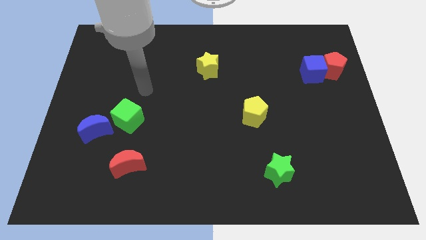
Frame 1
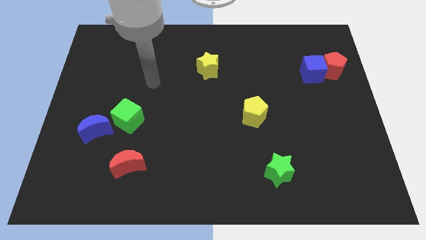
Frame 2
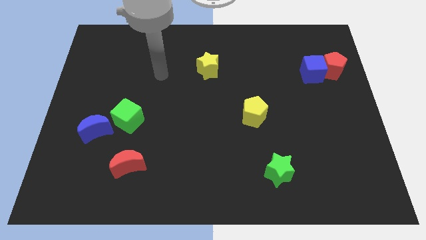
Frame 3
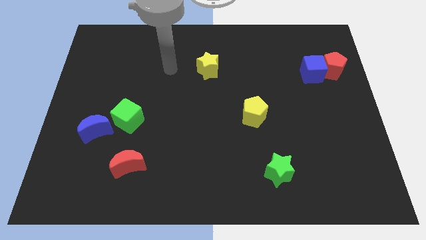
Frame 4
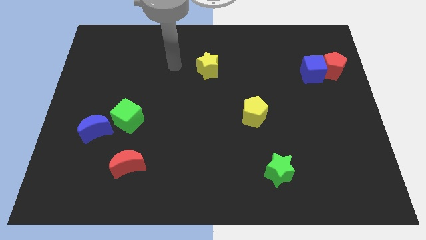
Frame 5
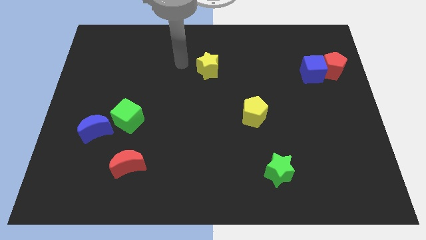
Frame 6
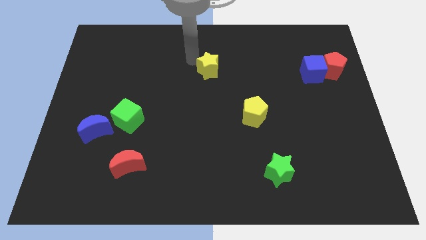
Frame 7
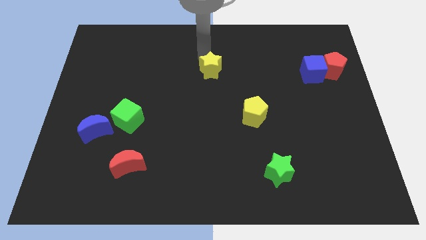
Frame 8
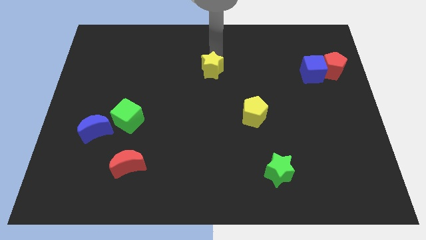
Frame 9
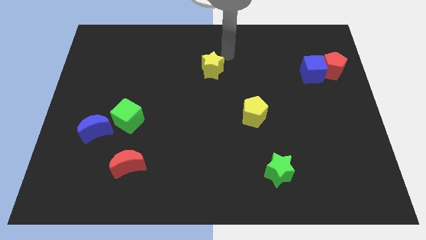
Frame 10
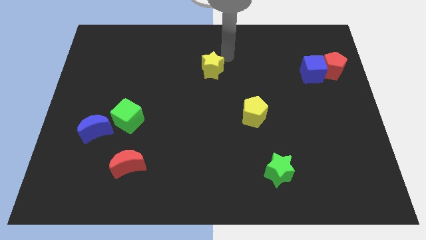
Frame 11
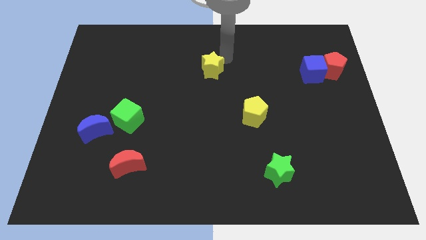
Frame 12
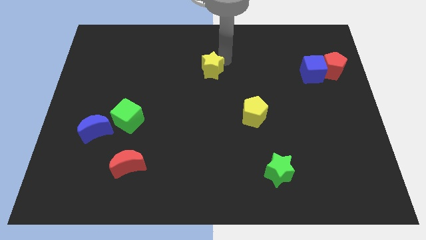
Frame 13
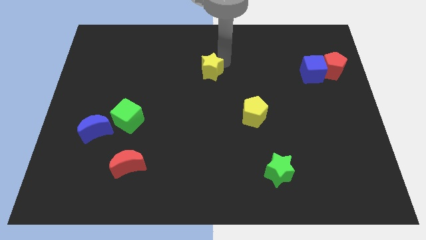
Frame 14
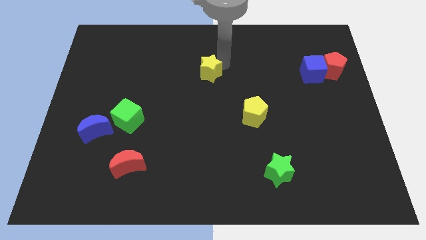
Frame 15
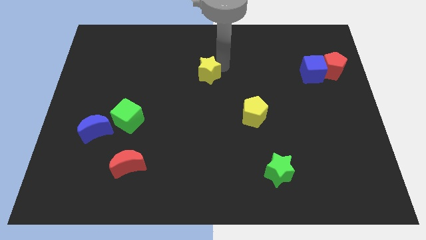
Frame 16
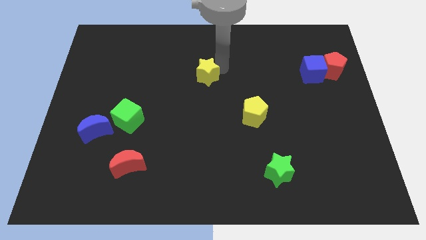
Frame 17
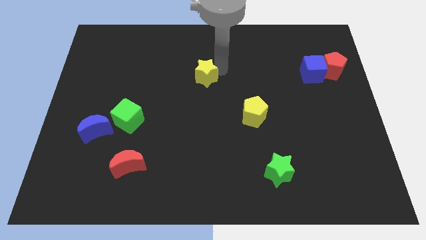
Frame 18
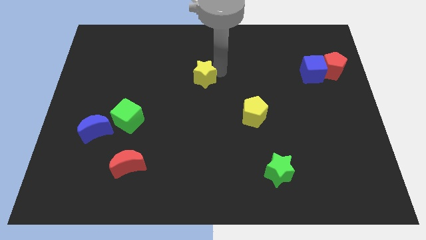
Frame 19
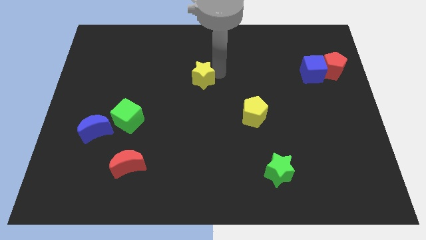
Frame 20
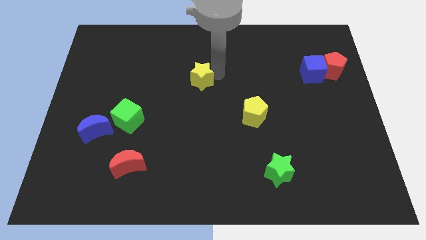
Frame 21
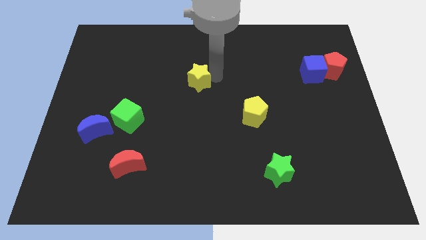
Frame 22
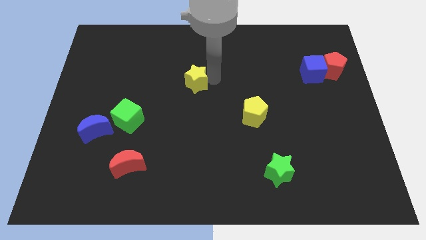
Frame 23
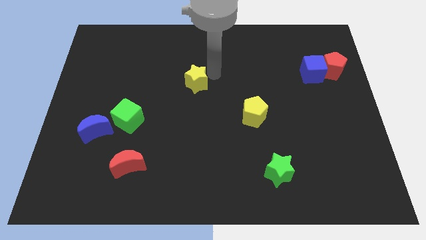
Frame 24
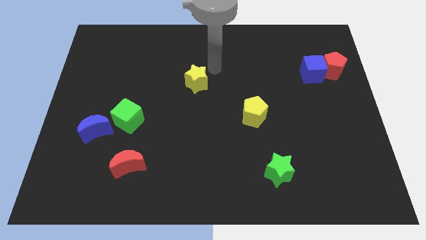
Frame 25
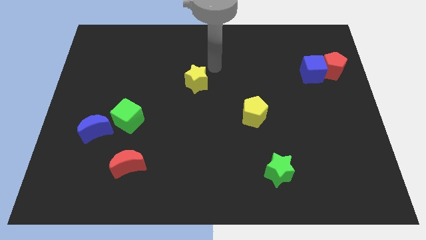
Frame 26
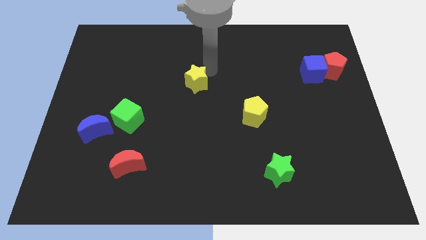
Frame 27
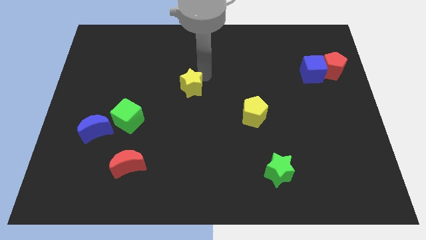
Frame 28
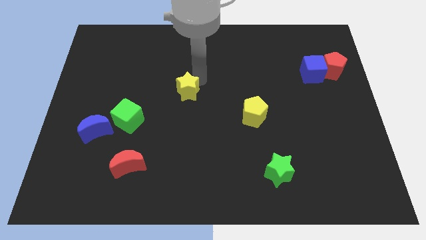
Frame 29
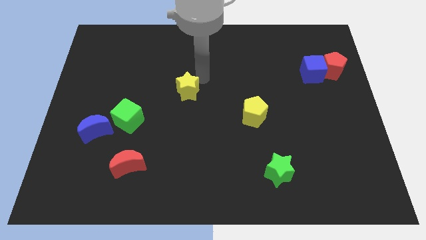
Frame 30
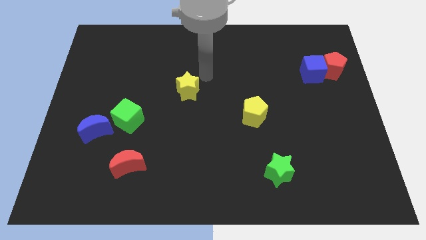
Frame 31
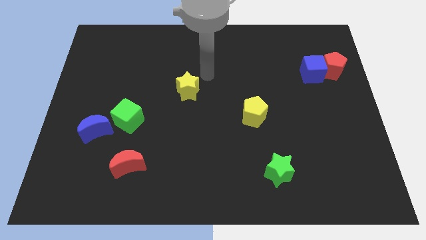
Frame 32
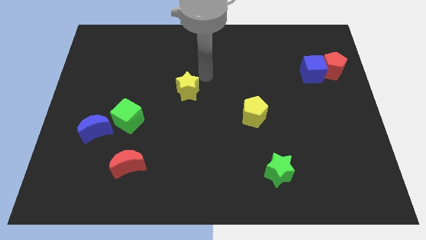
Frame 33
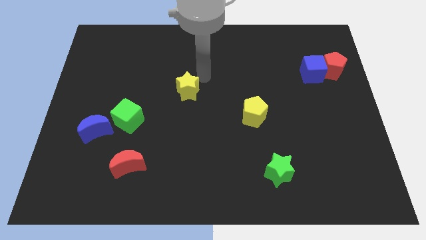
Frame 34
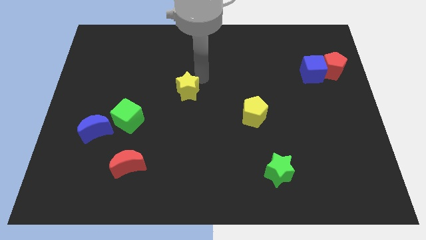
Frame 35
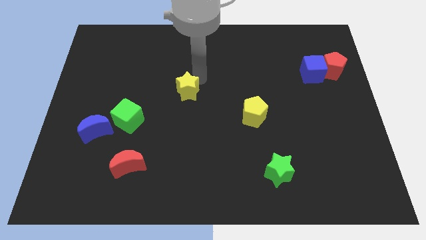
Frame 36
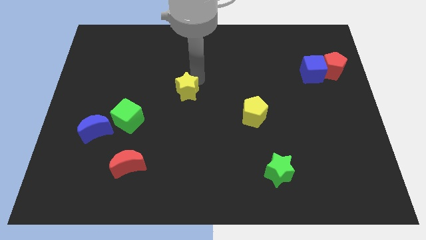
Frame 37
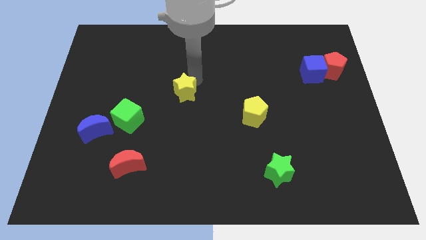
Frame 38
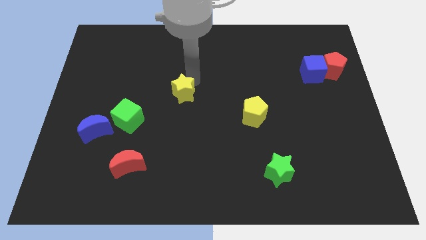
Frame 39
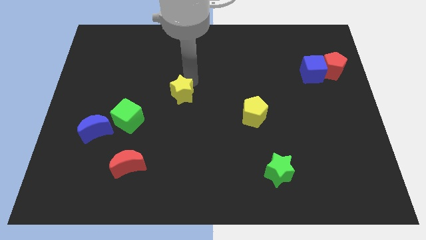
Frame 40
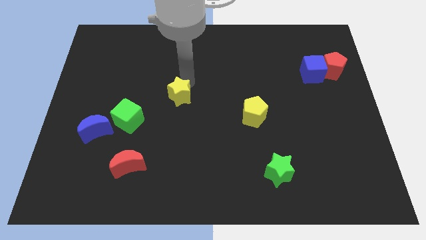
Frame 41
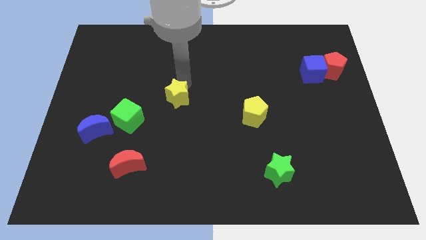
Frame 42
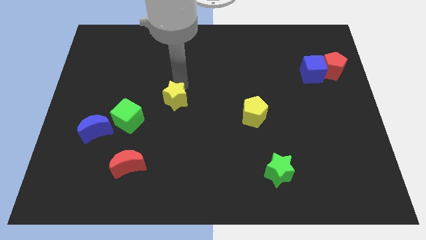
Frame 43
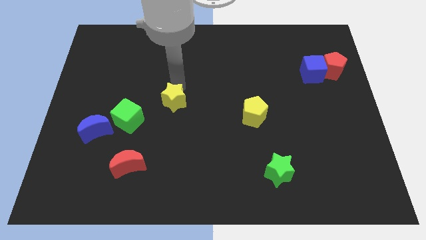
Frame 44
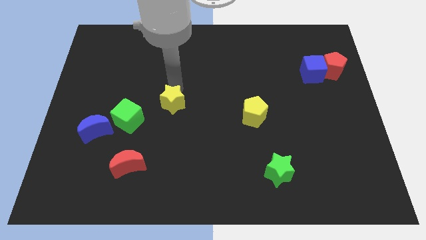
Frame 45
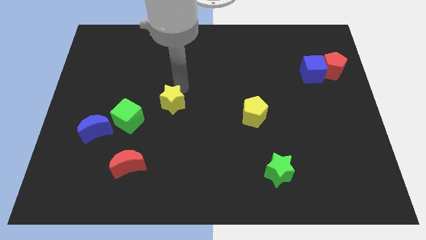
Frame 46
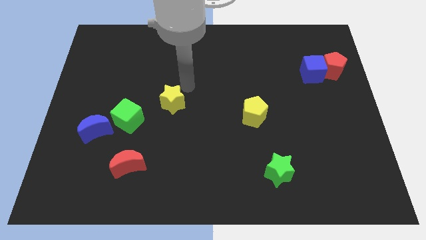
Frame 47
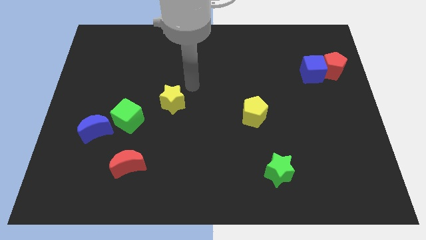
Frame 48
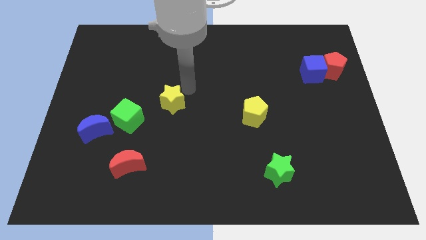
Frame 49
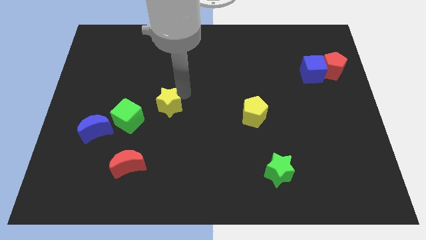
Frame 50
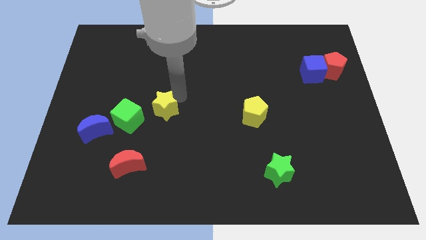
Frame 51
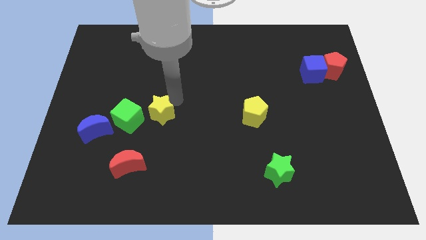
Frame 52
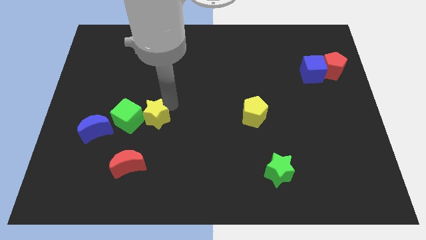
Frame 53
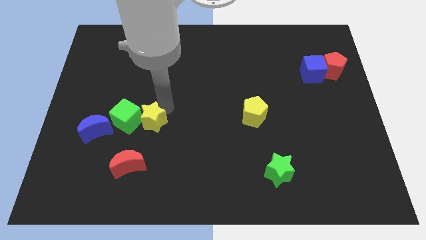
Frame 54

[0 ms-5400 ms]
slide the yellow star downwards and then left

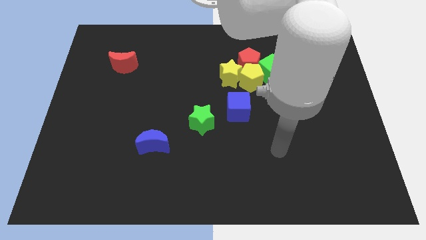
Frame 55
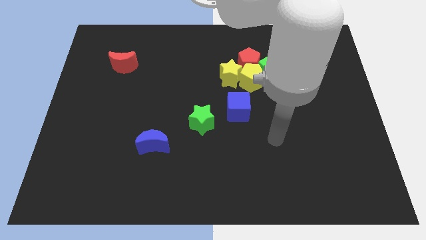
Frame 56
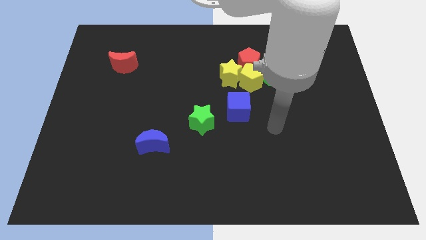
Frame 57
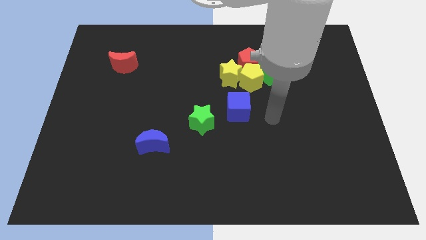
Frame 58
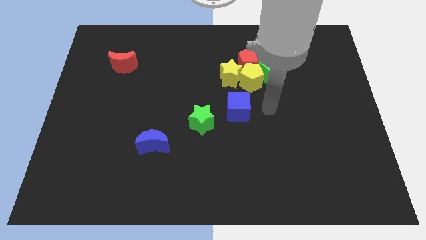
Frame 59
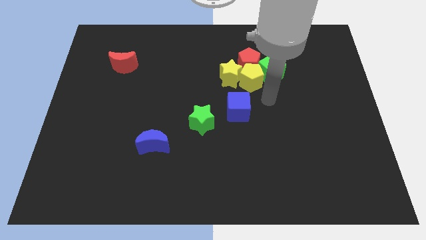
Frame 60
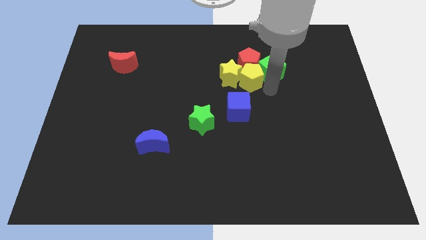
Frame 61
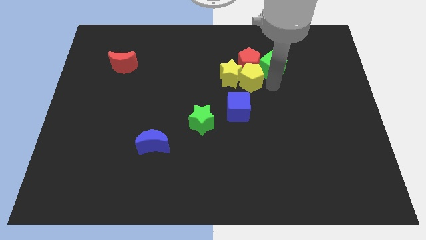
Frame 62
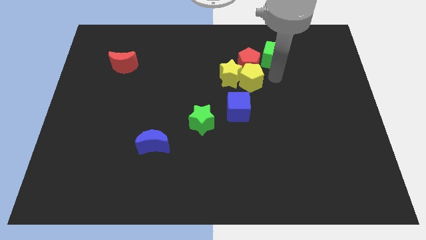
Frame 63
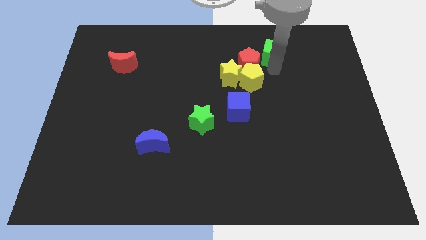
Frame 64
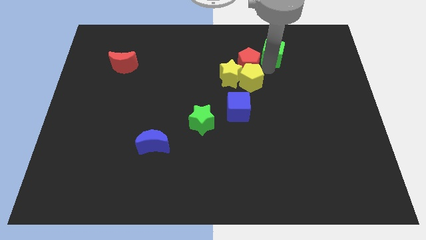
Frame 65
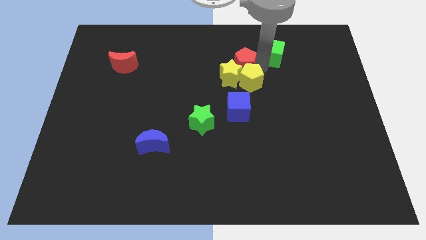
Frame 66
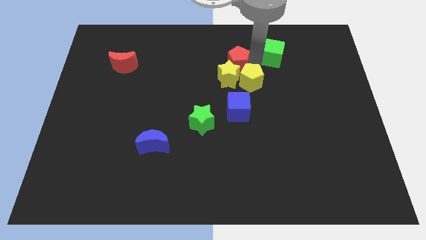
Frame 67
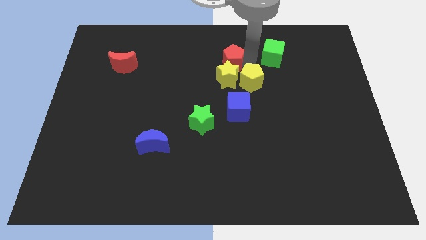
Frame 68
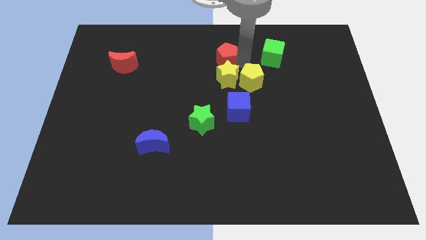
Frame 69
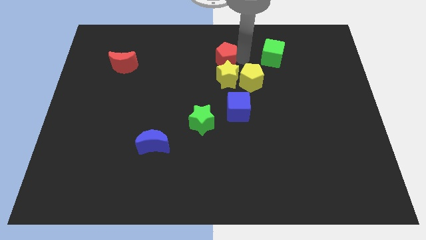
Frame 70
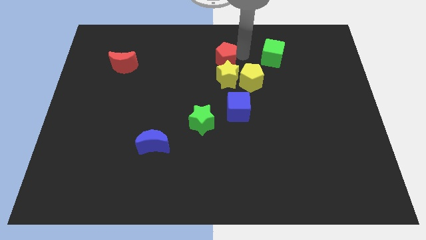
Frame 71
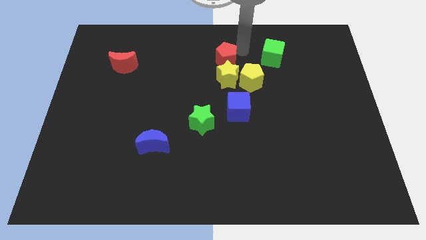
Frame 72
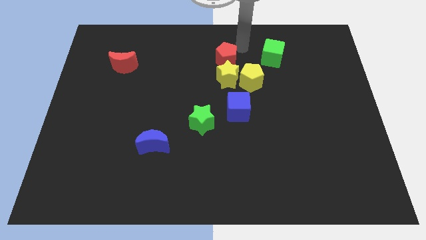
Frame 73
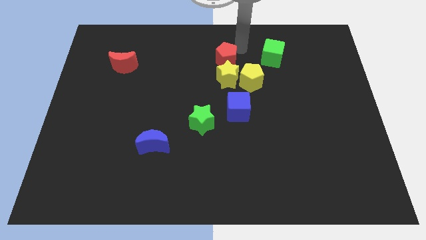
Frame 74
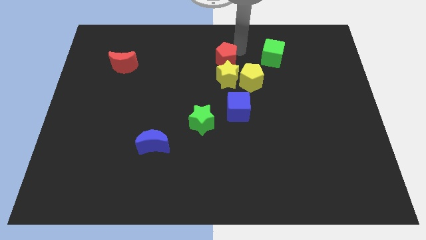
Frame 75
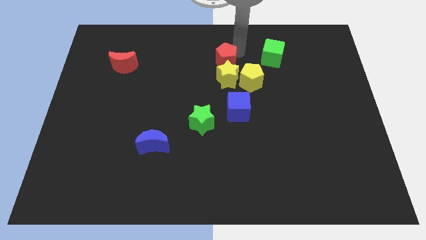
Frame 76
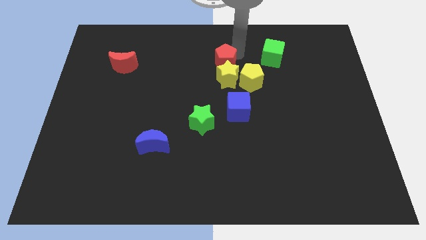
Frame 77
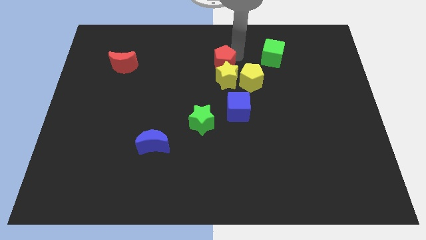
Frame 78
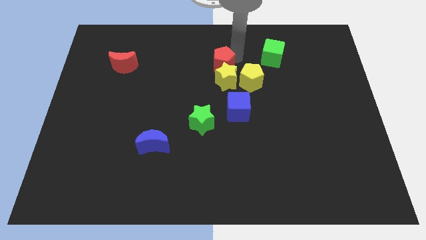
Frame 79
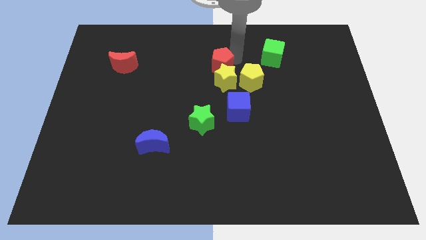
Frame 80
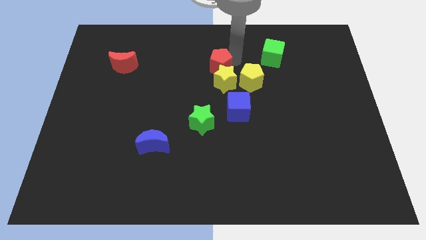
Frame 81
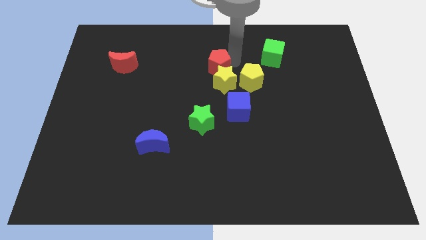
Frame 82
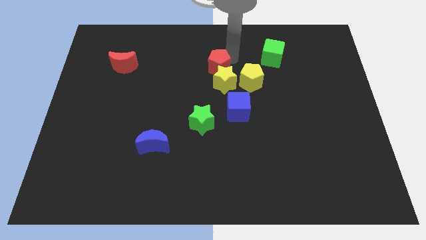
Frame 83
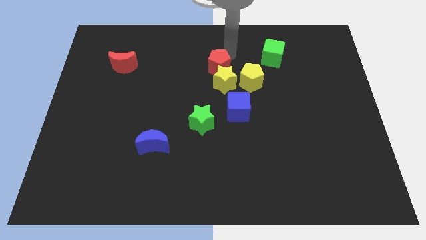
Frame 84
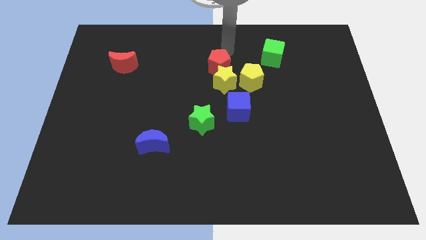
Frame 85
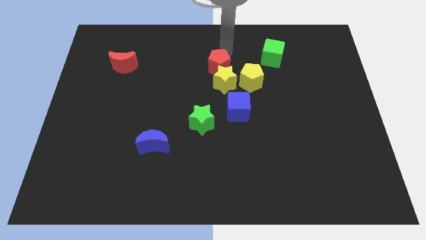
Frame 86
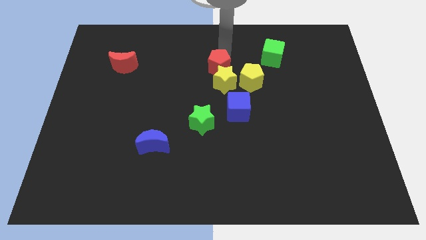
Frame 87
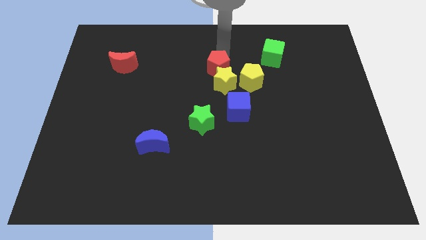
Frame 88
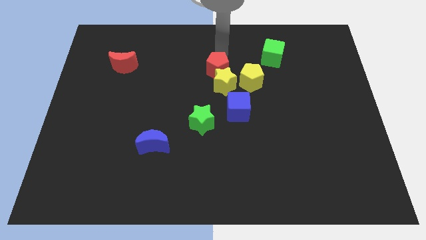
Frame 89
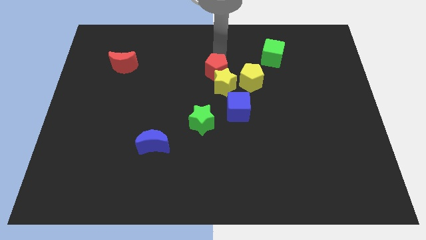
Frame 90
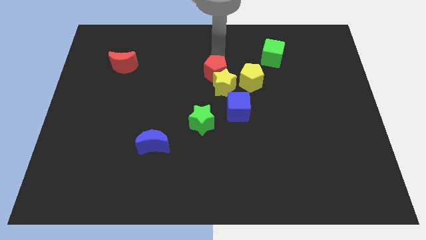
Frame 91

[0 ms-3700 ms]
move the red pentagon downwards and to the left slightly
